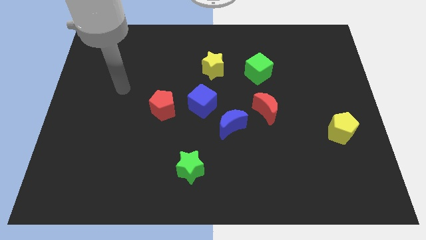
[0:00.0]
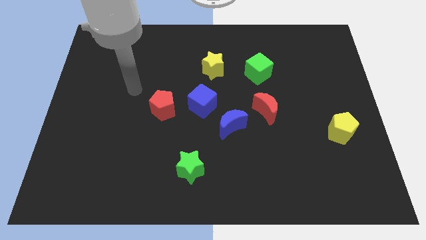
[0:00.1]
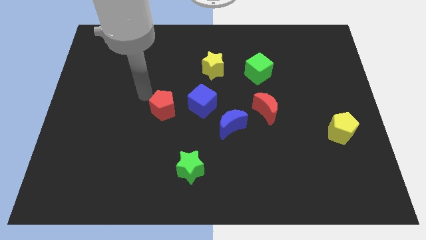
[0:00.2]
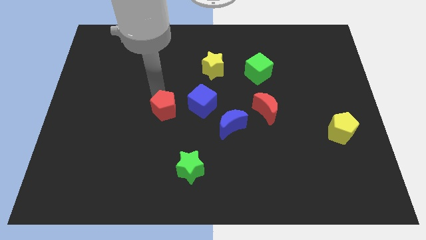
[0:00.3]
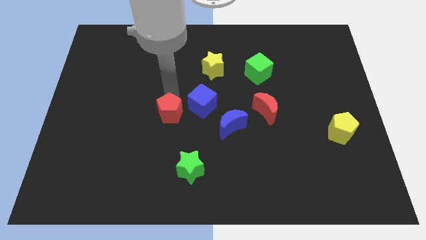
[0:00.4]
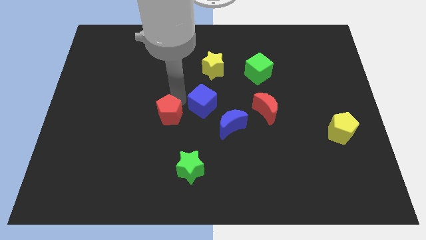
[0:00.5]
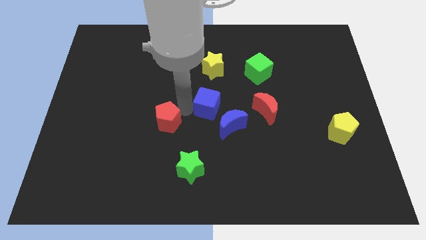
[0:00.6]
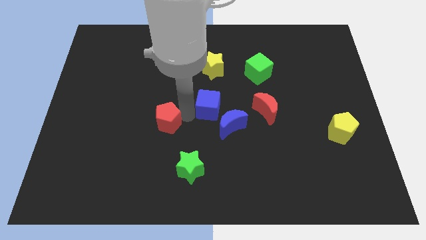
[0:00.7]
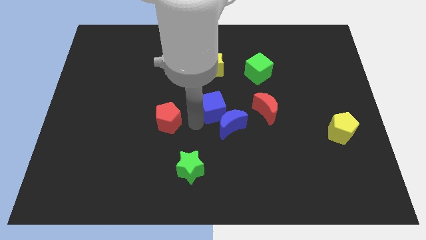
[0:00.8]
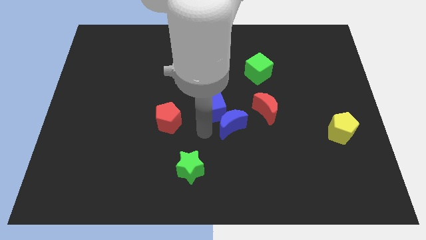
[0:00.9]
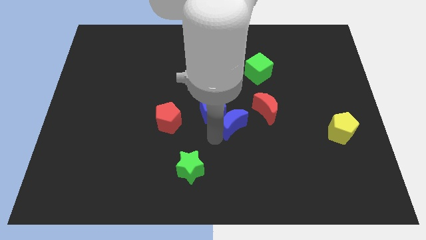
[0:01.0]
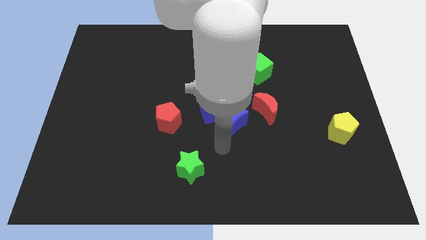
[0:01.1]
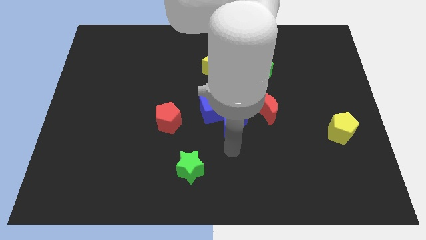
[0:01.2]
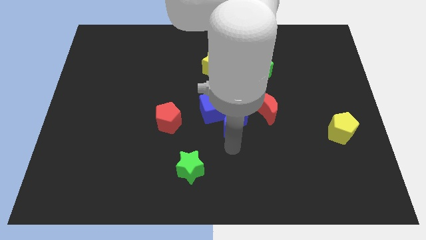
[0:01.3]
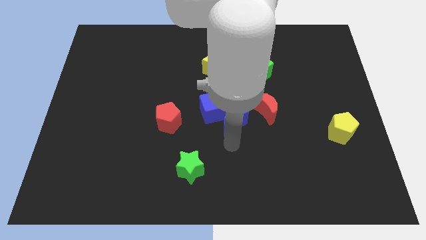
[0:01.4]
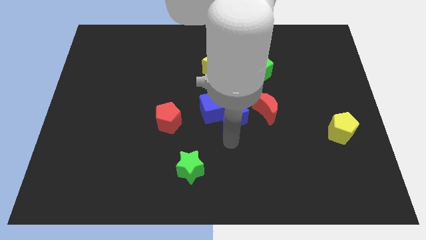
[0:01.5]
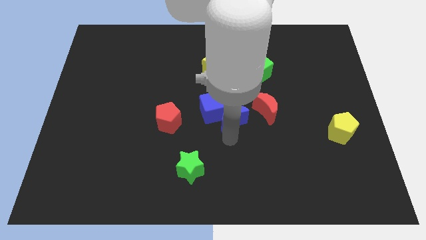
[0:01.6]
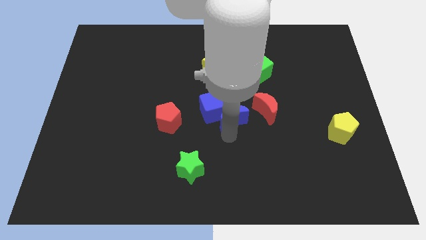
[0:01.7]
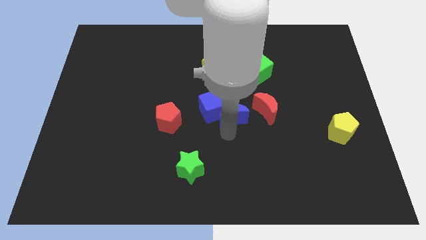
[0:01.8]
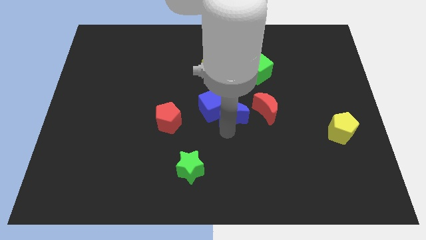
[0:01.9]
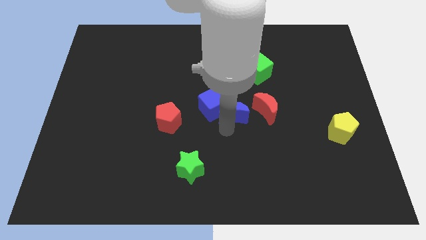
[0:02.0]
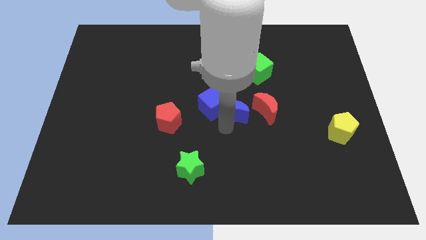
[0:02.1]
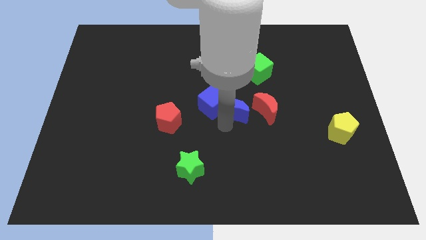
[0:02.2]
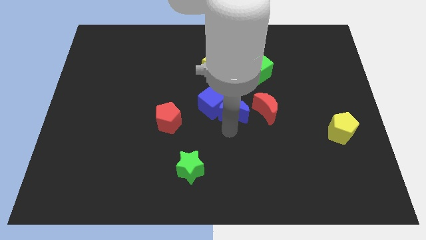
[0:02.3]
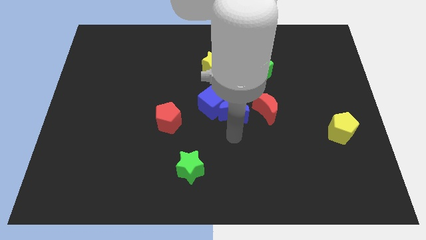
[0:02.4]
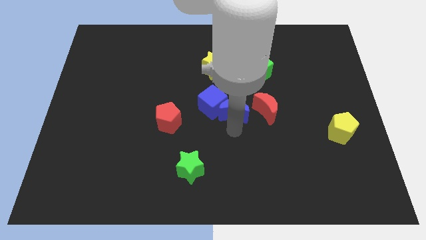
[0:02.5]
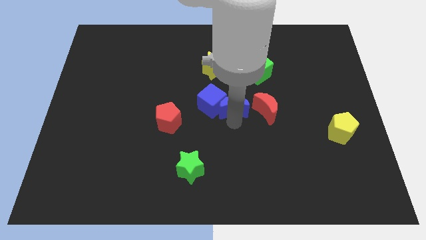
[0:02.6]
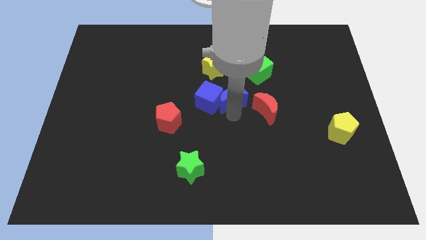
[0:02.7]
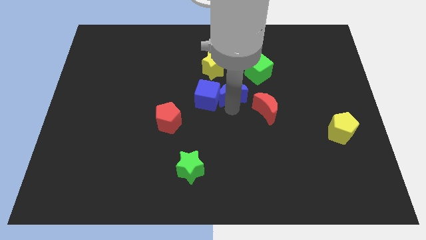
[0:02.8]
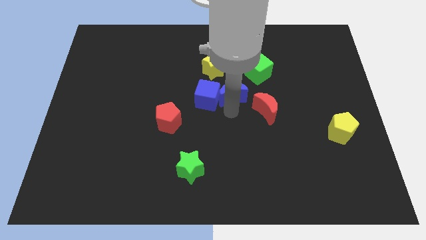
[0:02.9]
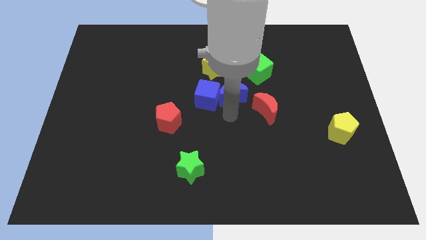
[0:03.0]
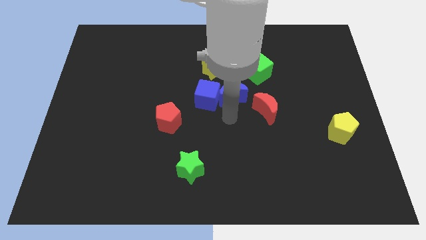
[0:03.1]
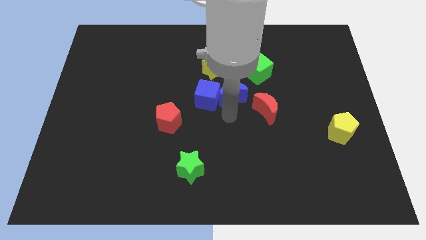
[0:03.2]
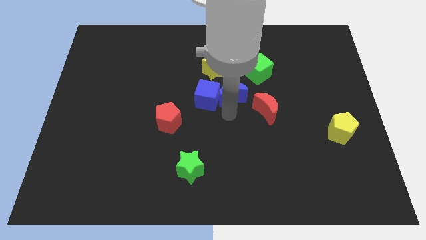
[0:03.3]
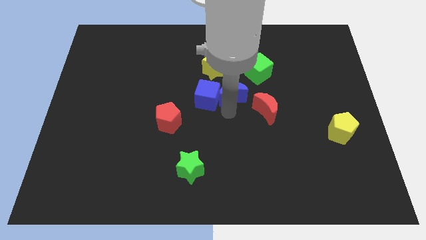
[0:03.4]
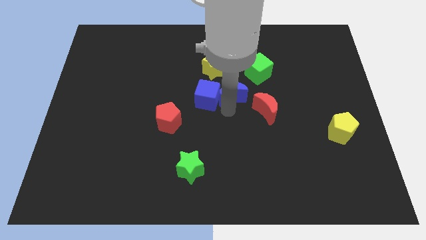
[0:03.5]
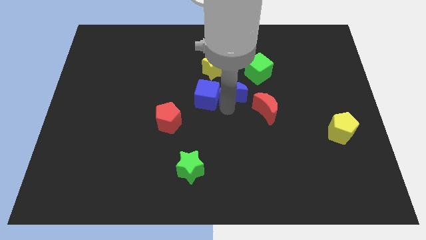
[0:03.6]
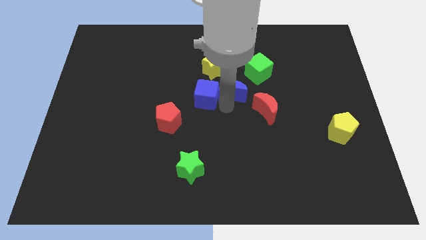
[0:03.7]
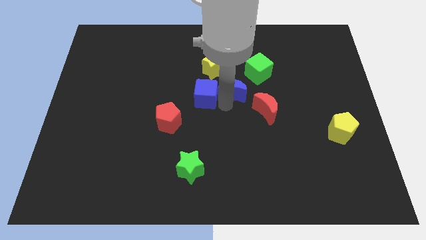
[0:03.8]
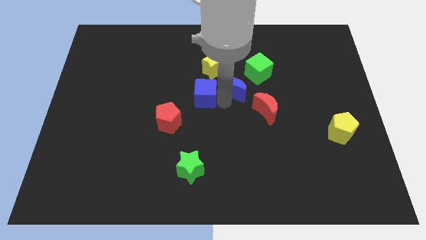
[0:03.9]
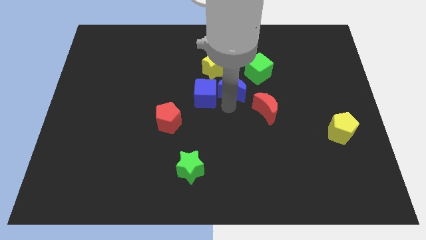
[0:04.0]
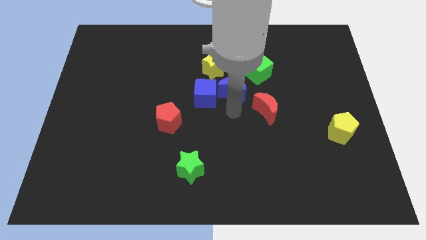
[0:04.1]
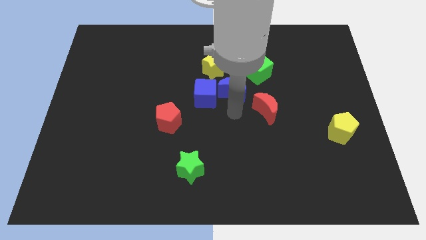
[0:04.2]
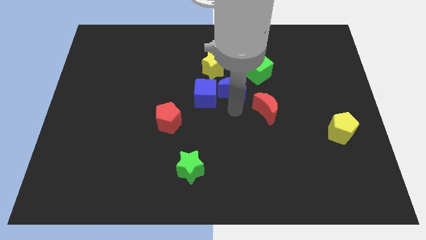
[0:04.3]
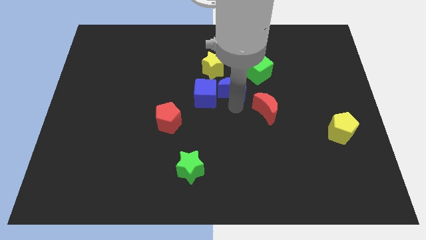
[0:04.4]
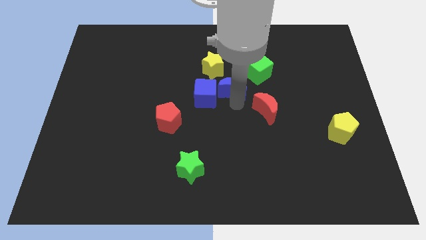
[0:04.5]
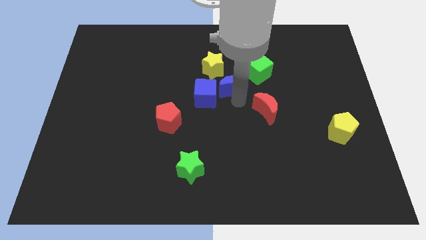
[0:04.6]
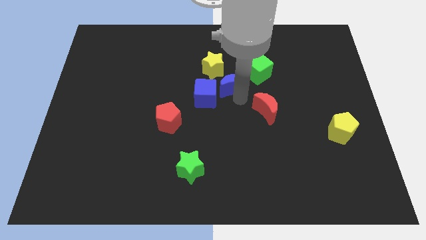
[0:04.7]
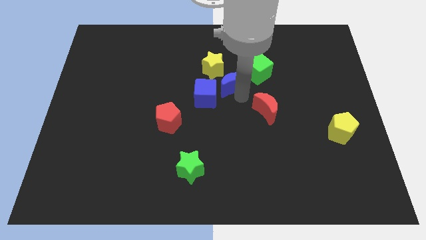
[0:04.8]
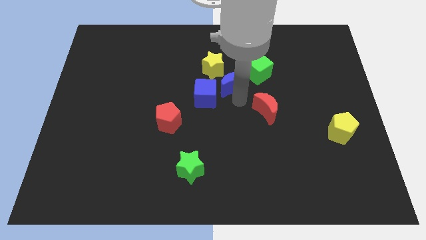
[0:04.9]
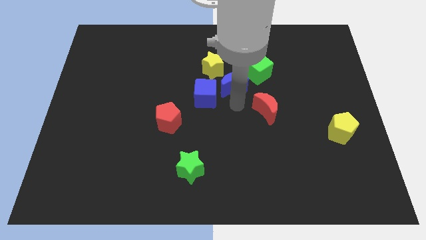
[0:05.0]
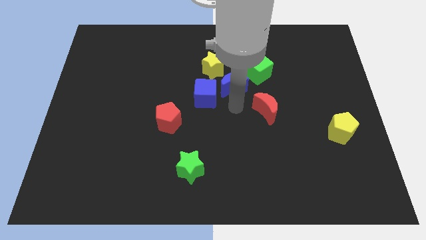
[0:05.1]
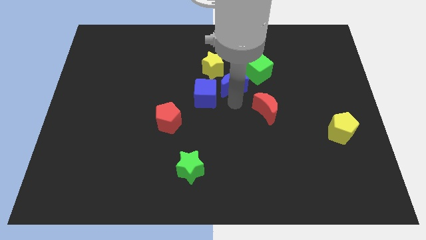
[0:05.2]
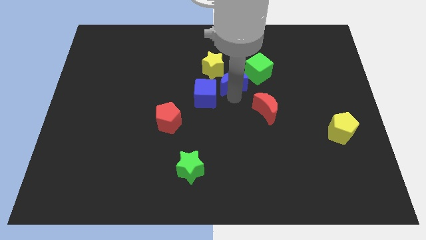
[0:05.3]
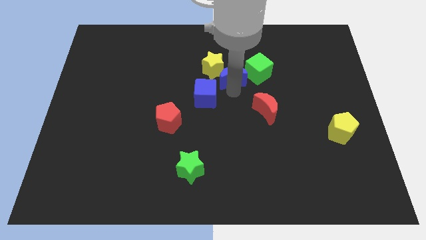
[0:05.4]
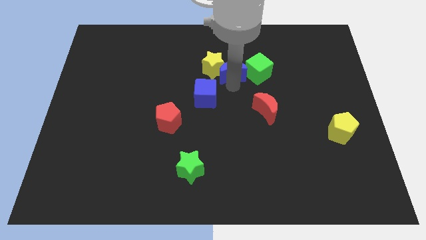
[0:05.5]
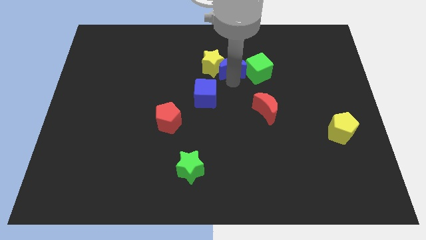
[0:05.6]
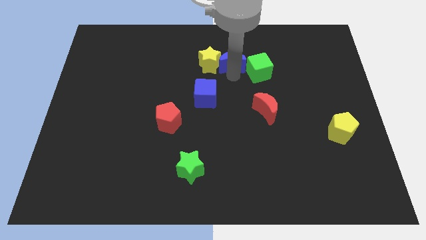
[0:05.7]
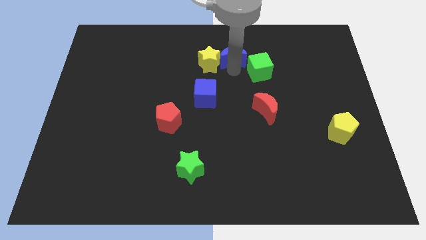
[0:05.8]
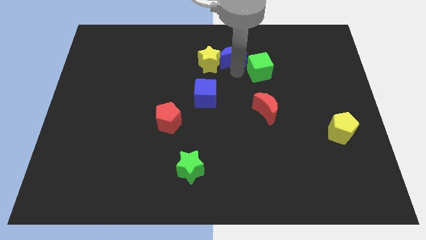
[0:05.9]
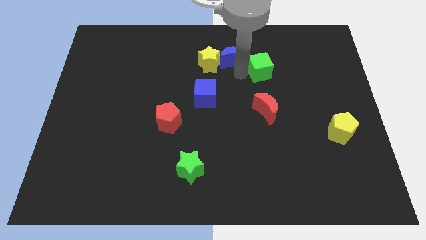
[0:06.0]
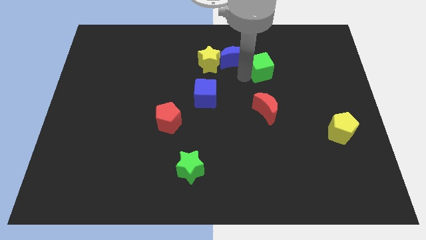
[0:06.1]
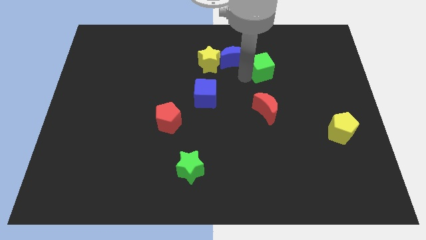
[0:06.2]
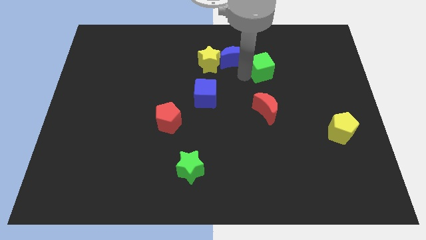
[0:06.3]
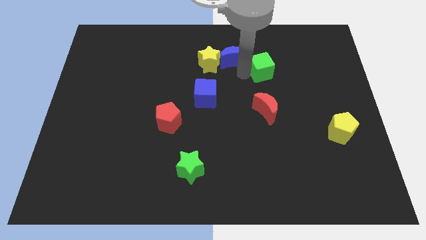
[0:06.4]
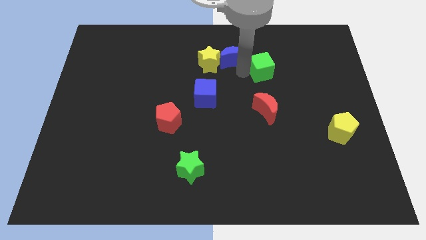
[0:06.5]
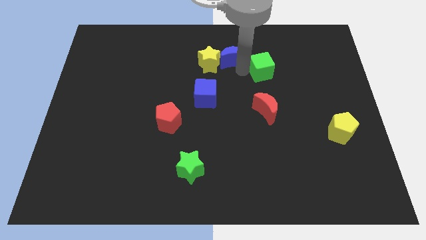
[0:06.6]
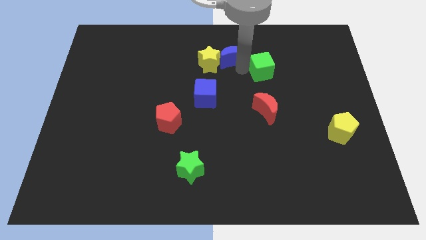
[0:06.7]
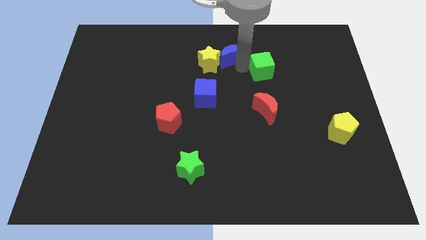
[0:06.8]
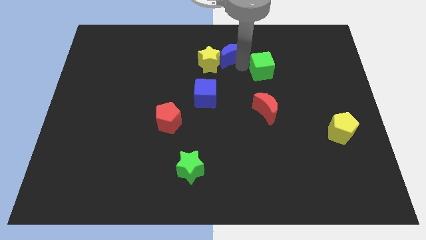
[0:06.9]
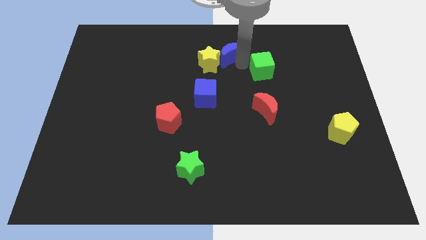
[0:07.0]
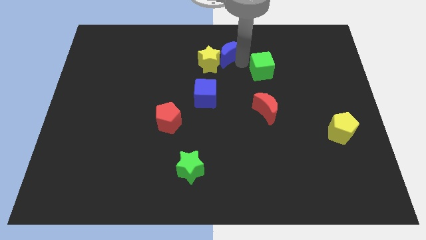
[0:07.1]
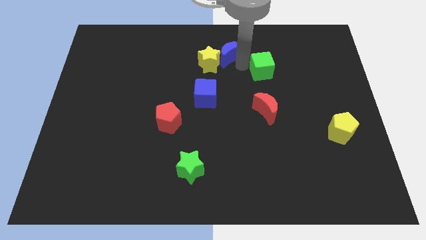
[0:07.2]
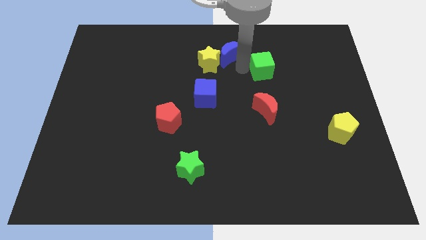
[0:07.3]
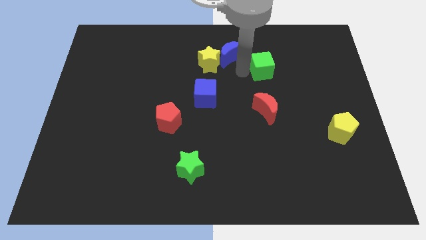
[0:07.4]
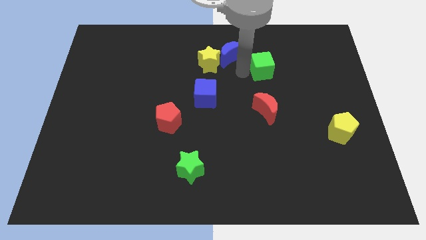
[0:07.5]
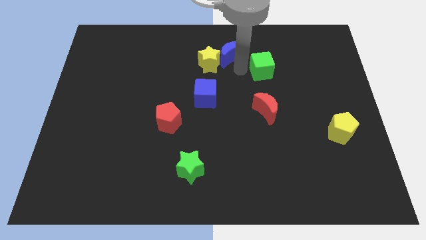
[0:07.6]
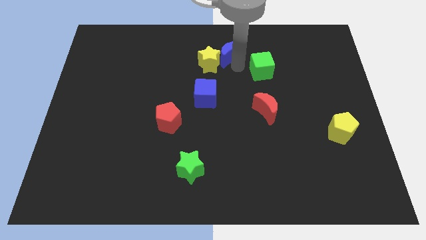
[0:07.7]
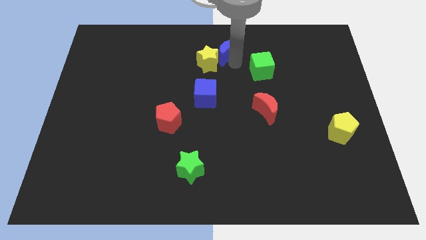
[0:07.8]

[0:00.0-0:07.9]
push the blue moon to the towards your base
